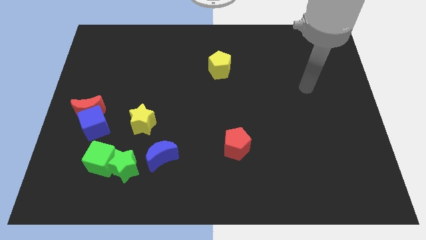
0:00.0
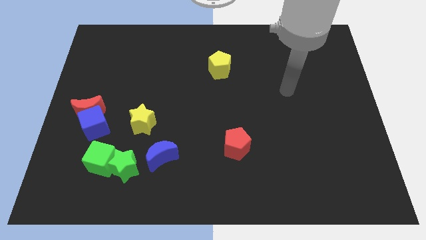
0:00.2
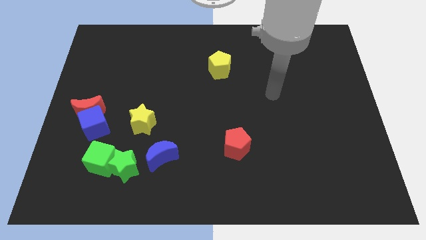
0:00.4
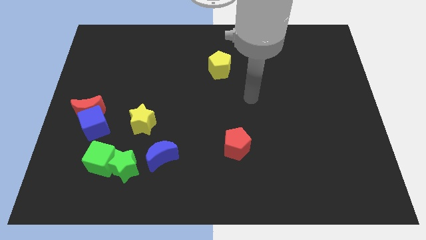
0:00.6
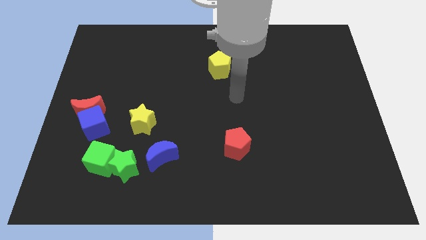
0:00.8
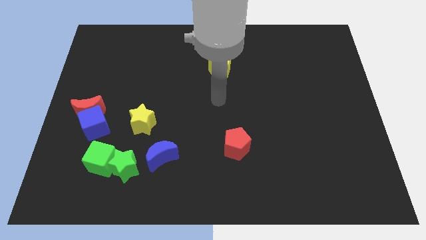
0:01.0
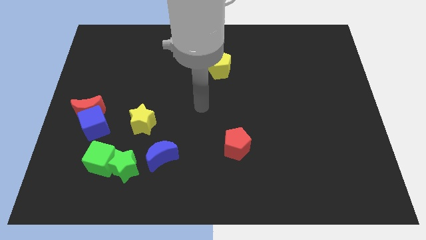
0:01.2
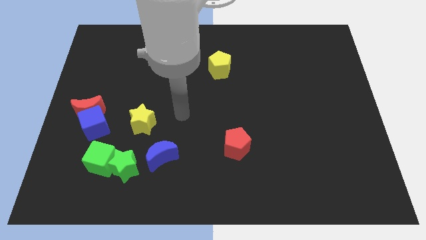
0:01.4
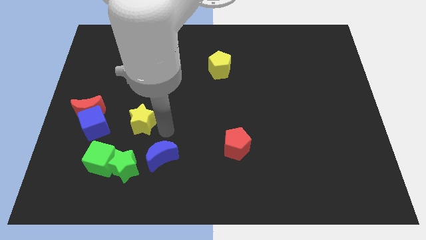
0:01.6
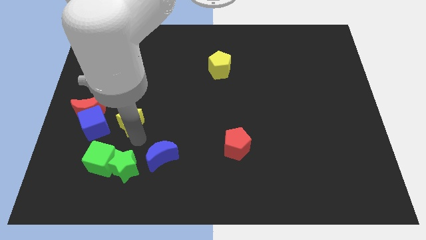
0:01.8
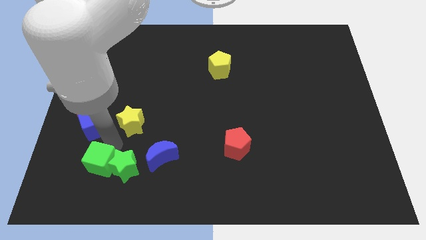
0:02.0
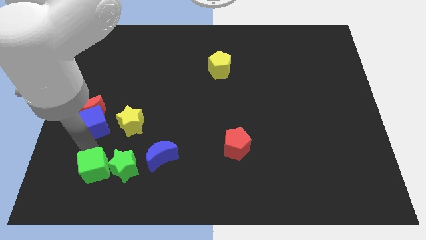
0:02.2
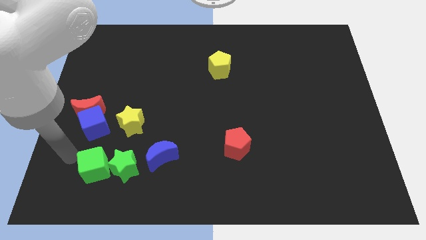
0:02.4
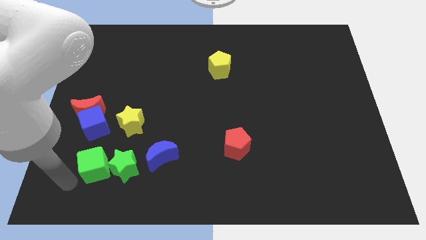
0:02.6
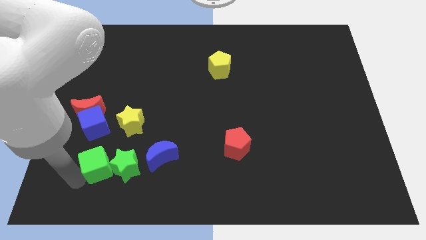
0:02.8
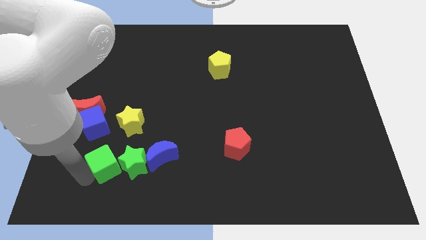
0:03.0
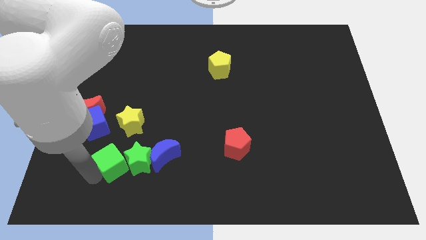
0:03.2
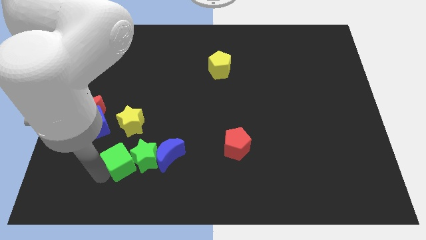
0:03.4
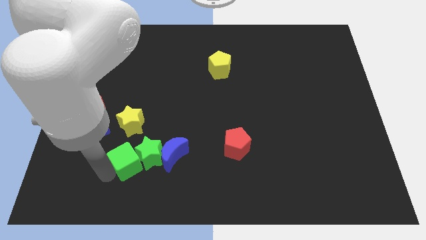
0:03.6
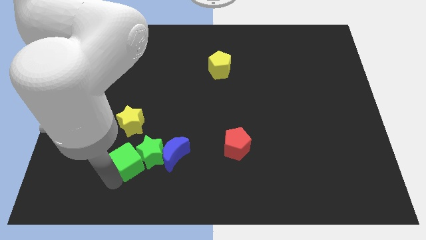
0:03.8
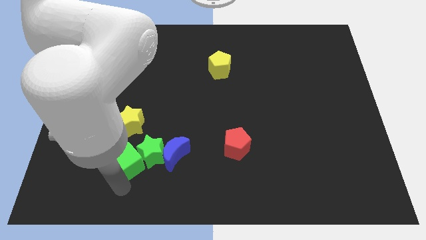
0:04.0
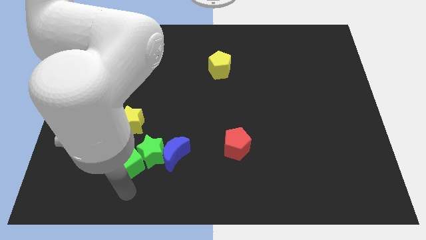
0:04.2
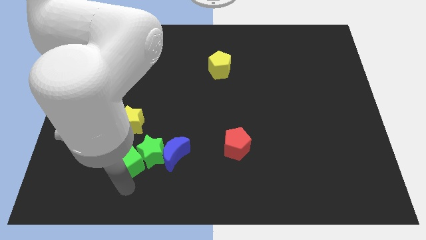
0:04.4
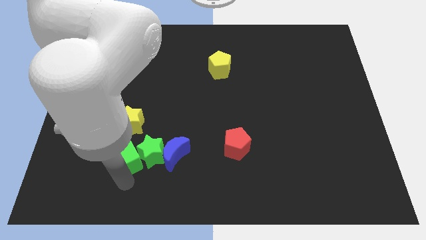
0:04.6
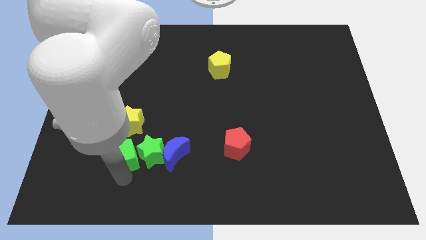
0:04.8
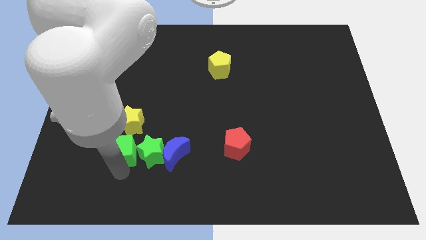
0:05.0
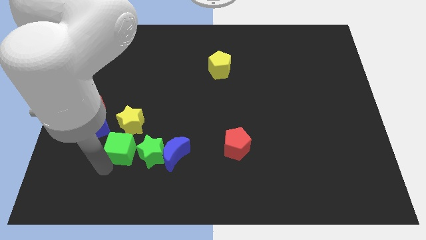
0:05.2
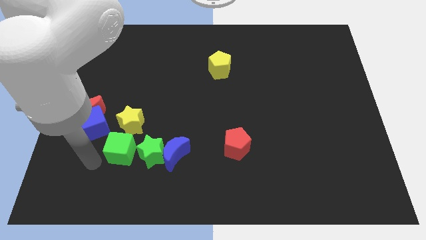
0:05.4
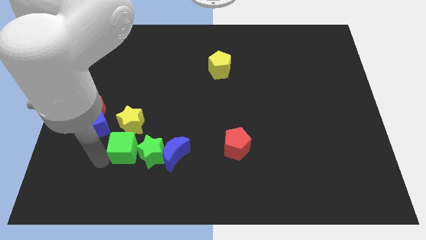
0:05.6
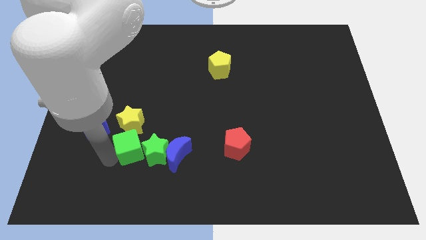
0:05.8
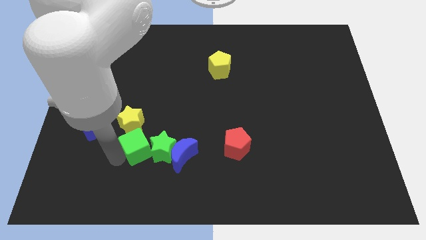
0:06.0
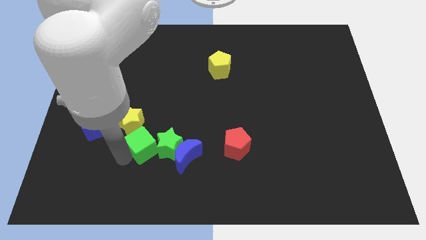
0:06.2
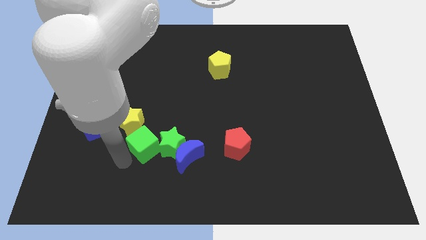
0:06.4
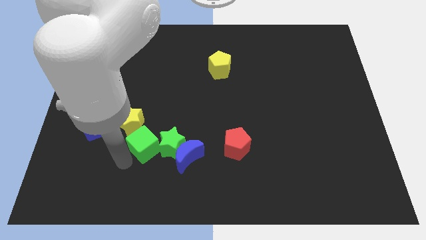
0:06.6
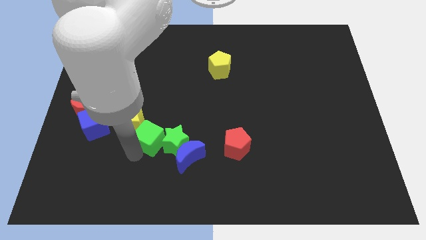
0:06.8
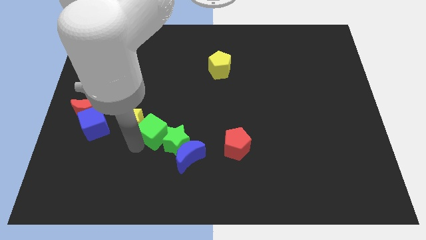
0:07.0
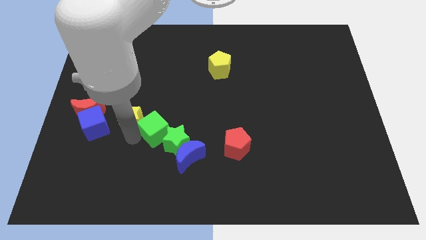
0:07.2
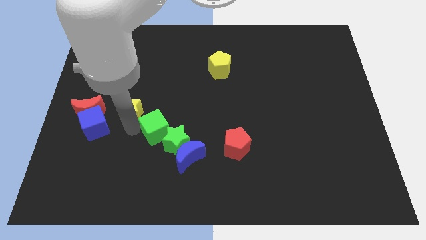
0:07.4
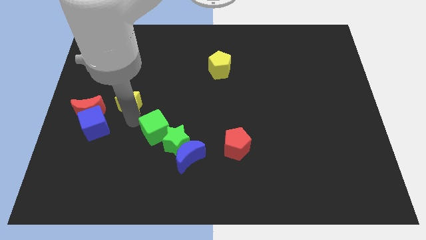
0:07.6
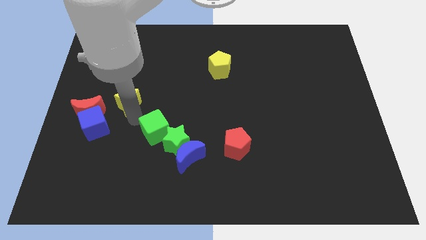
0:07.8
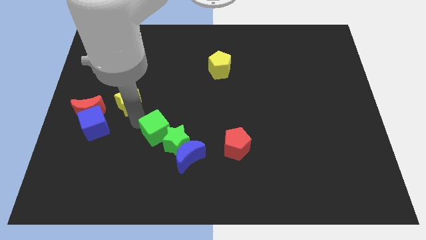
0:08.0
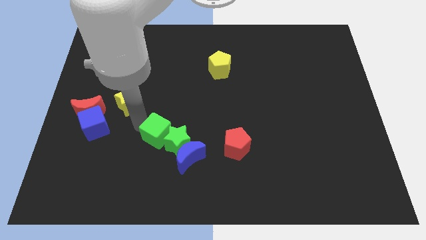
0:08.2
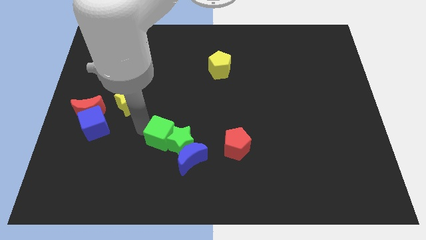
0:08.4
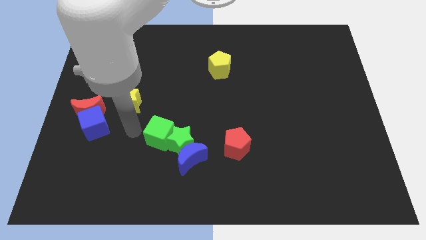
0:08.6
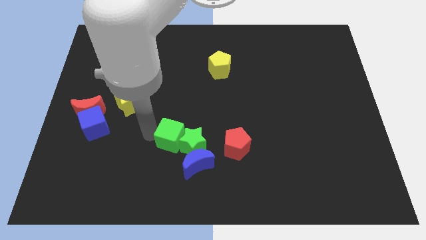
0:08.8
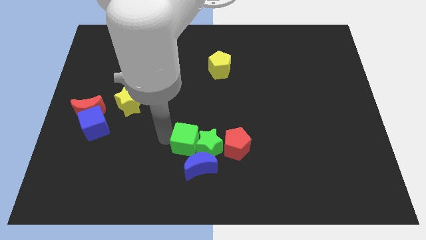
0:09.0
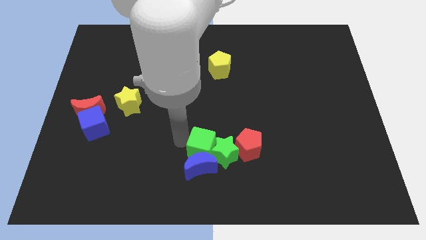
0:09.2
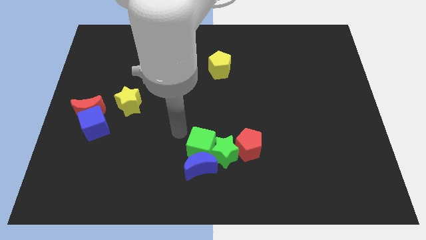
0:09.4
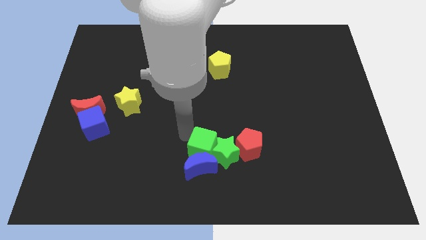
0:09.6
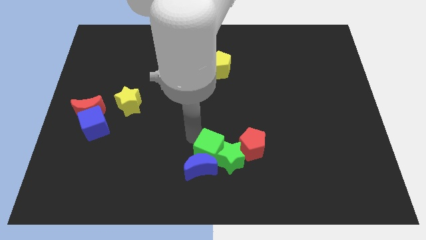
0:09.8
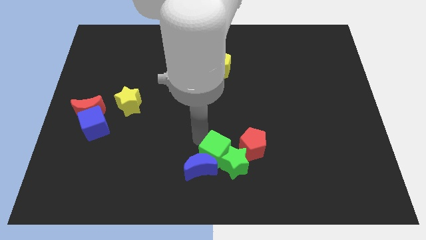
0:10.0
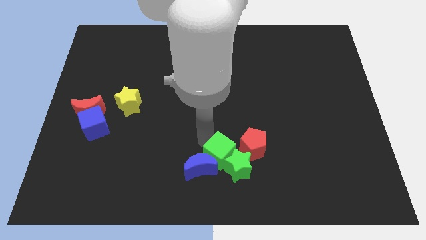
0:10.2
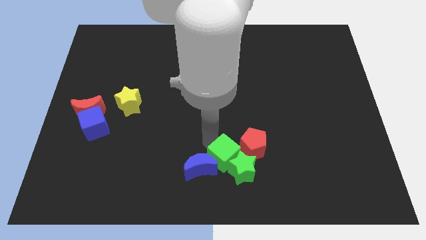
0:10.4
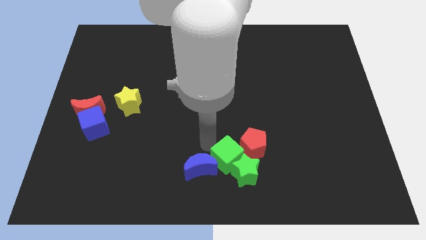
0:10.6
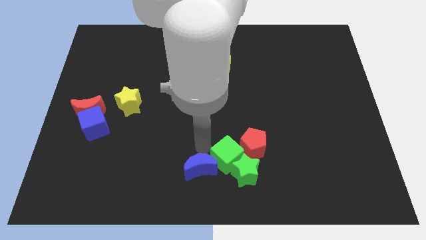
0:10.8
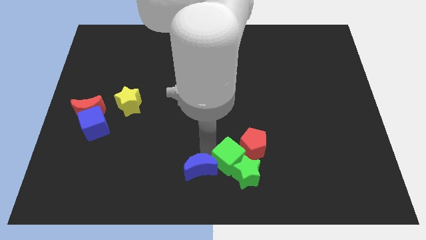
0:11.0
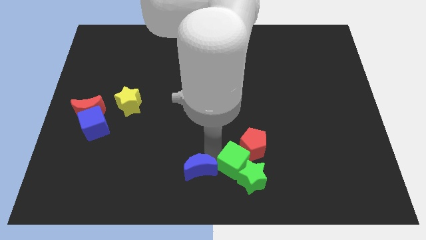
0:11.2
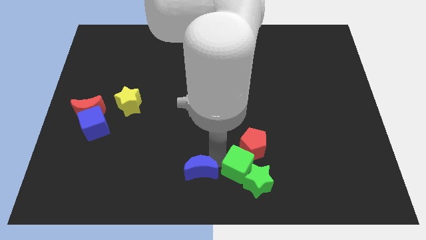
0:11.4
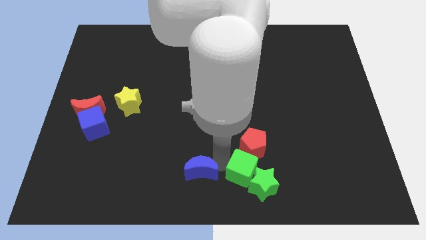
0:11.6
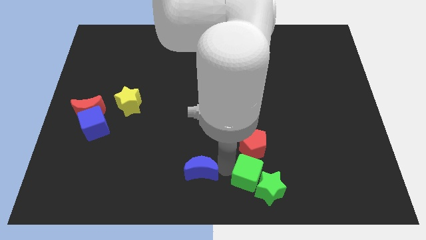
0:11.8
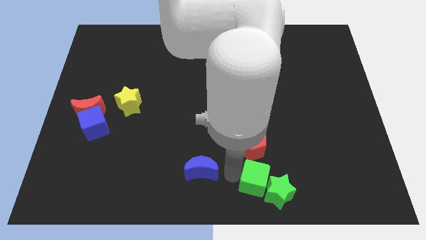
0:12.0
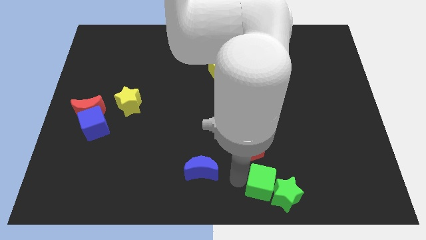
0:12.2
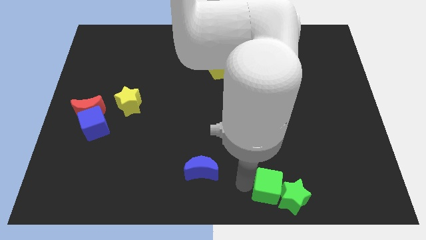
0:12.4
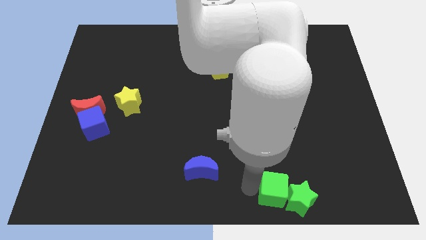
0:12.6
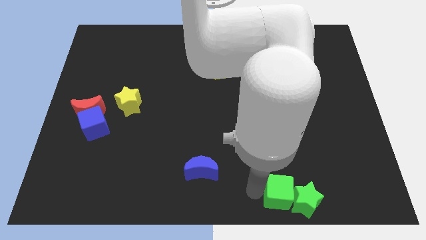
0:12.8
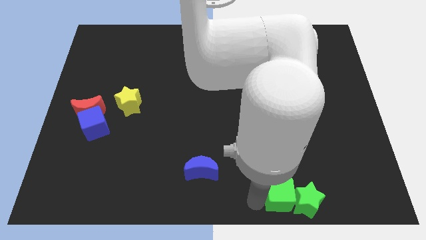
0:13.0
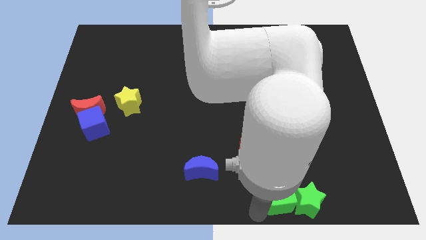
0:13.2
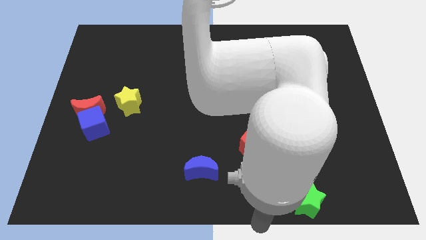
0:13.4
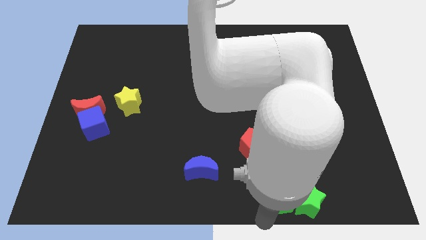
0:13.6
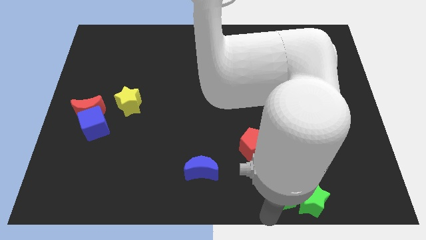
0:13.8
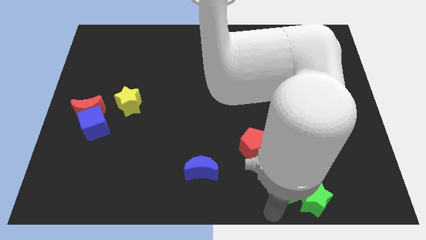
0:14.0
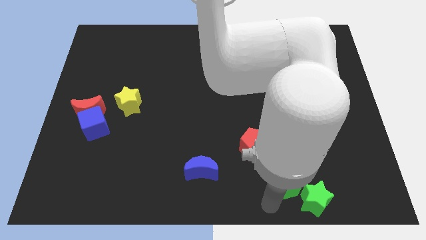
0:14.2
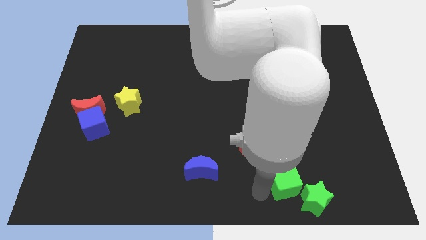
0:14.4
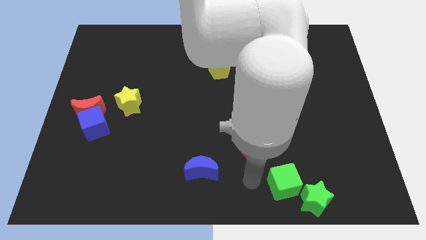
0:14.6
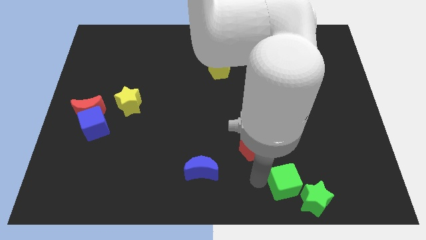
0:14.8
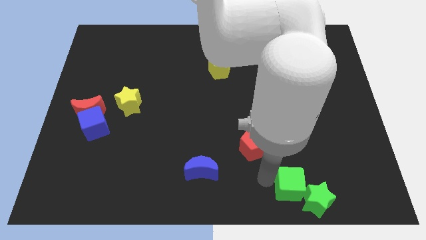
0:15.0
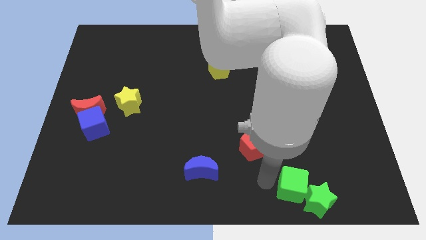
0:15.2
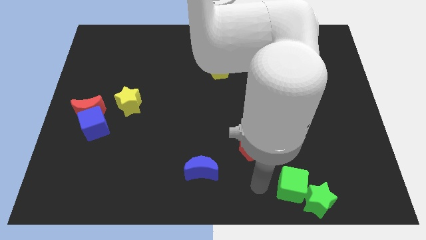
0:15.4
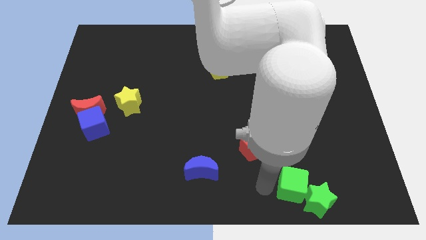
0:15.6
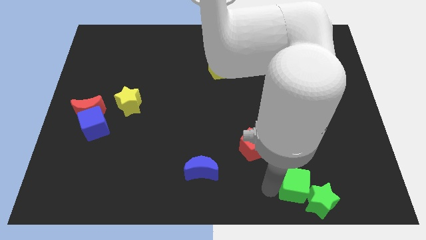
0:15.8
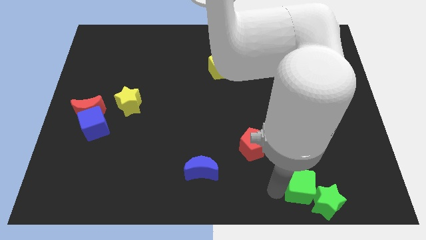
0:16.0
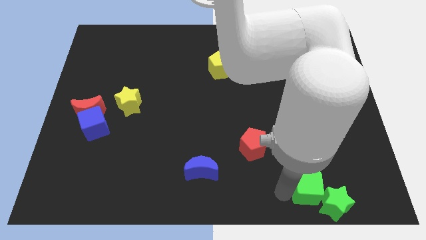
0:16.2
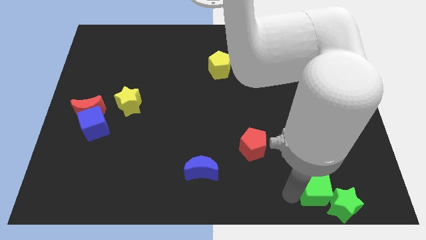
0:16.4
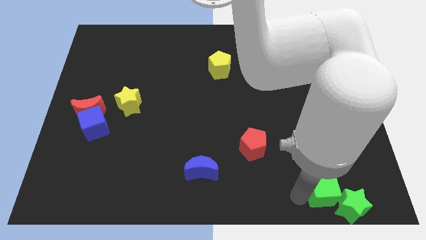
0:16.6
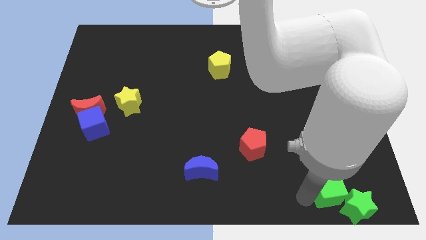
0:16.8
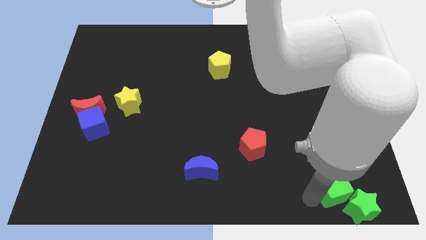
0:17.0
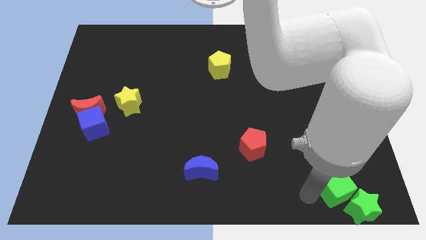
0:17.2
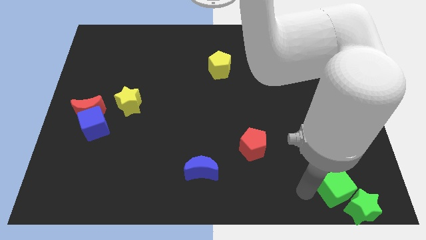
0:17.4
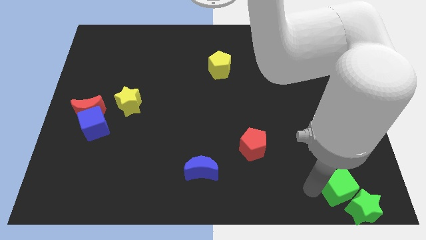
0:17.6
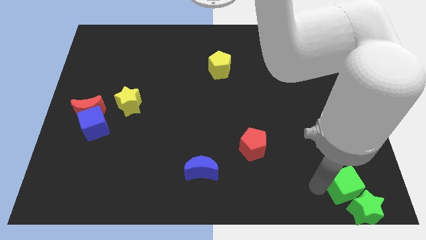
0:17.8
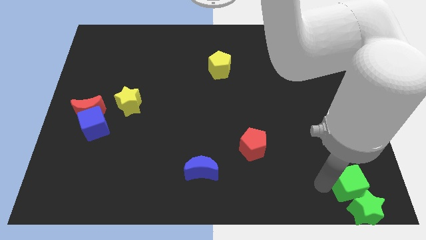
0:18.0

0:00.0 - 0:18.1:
move the green cube to the bottom right
